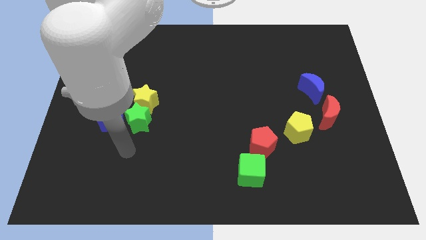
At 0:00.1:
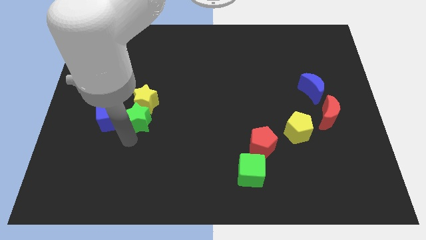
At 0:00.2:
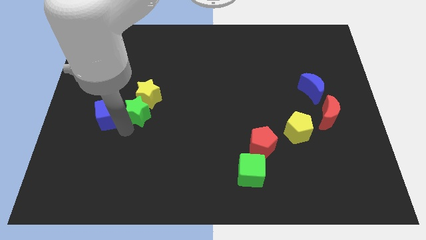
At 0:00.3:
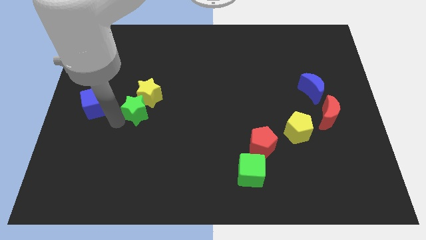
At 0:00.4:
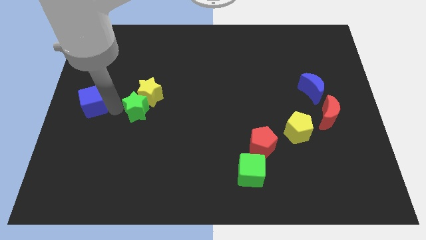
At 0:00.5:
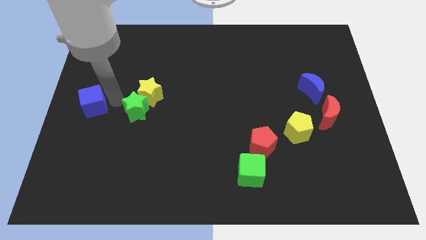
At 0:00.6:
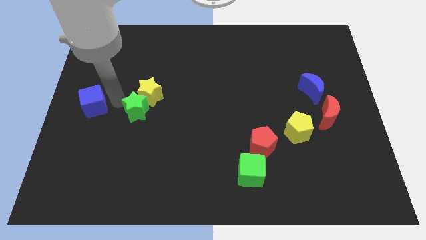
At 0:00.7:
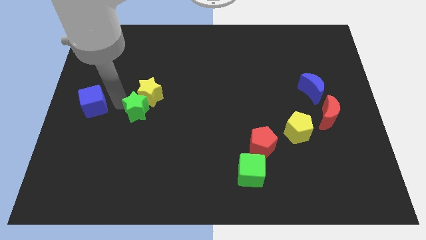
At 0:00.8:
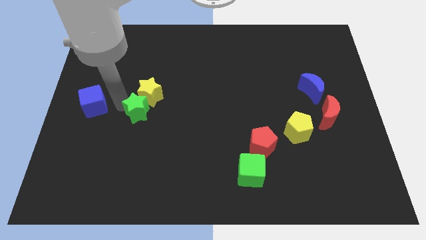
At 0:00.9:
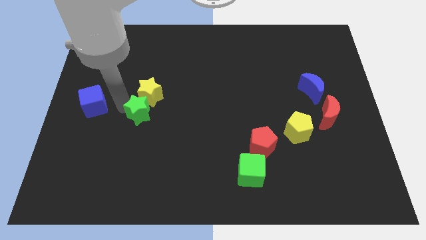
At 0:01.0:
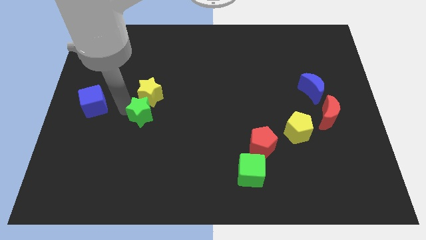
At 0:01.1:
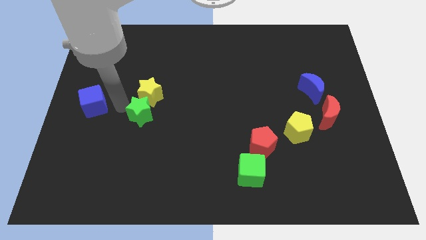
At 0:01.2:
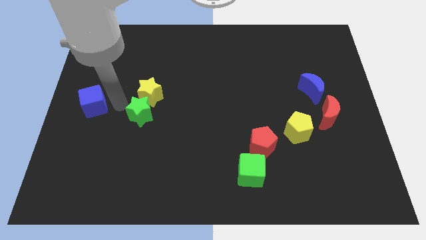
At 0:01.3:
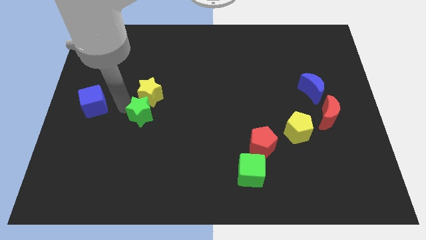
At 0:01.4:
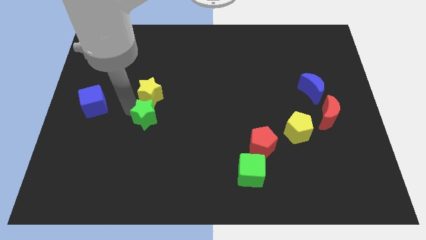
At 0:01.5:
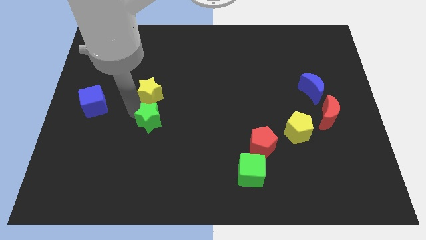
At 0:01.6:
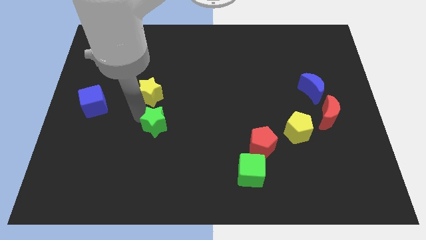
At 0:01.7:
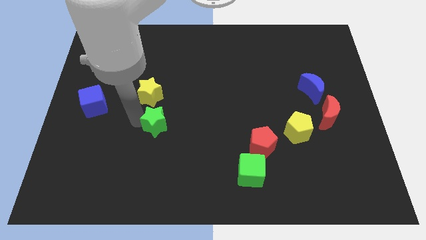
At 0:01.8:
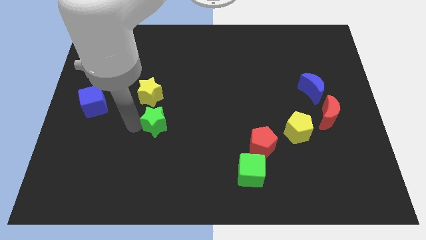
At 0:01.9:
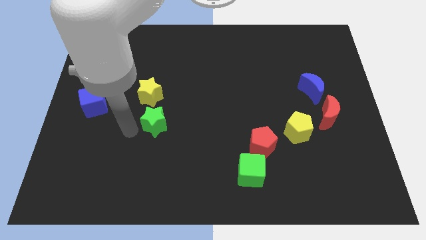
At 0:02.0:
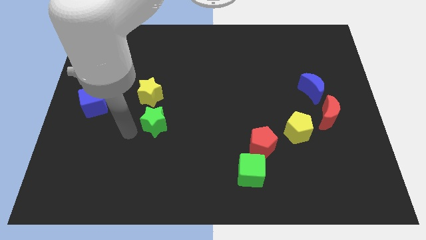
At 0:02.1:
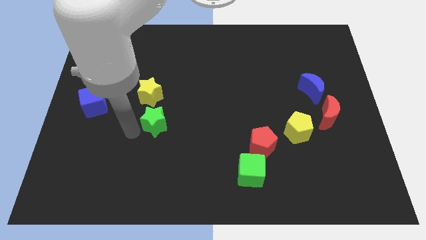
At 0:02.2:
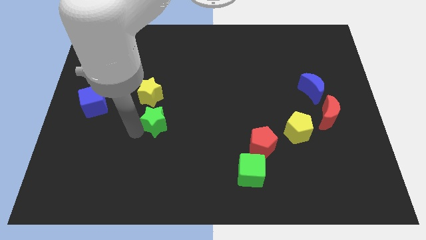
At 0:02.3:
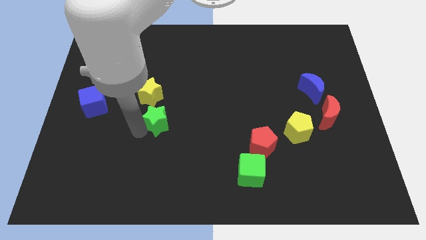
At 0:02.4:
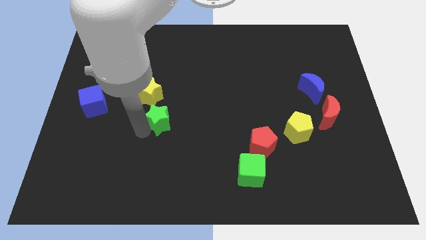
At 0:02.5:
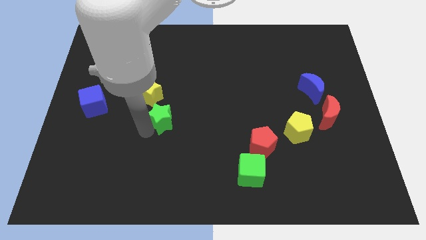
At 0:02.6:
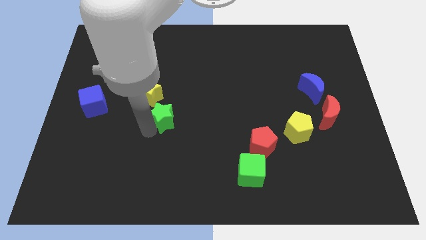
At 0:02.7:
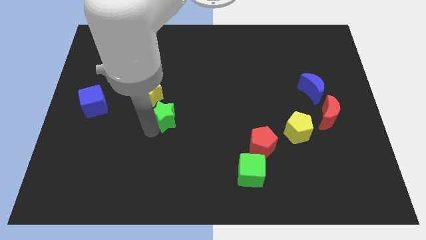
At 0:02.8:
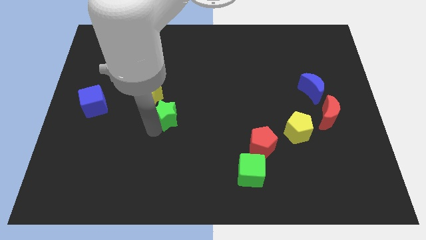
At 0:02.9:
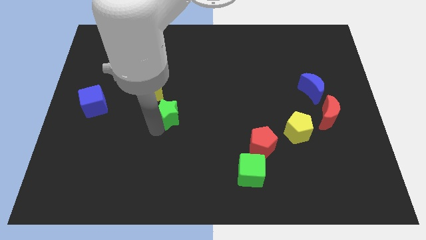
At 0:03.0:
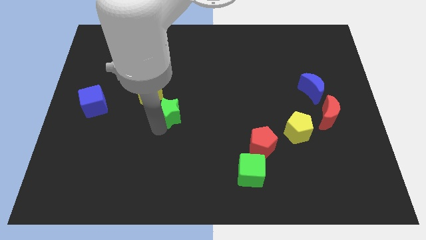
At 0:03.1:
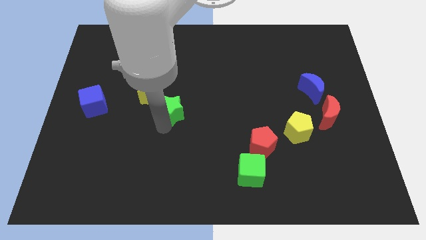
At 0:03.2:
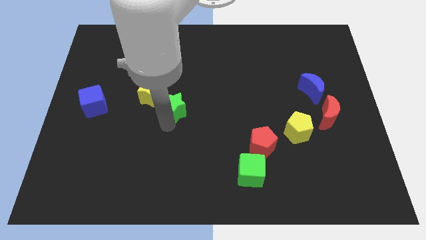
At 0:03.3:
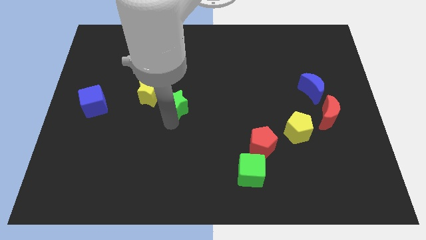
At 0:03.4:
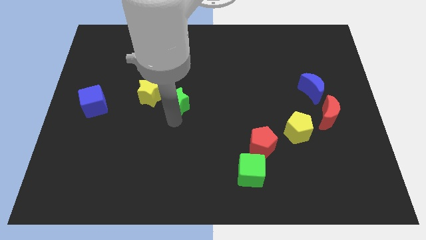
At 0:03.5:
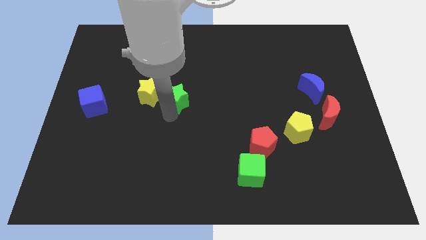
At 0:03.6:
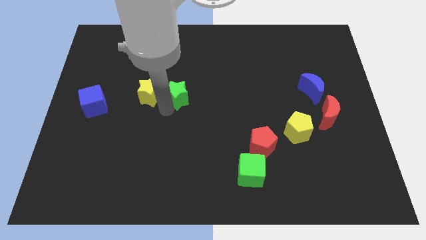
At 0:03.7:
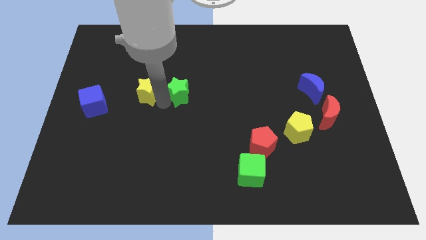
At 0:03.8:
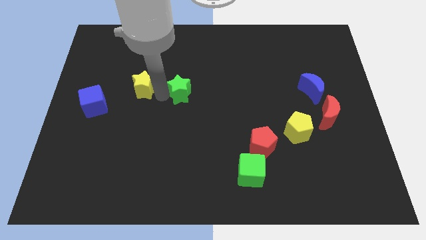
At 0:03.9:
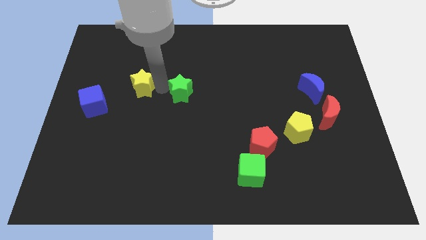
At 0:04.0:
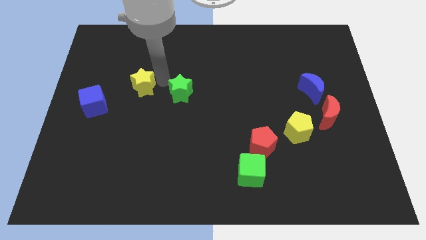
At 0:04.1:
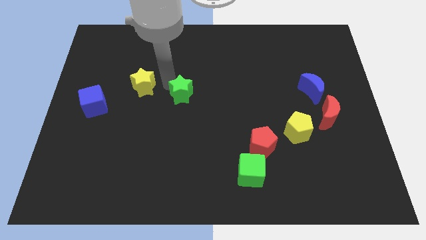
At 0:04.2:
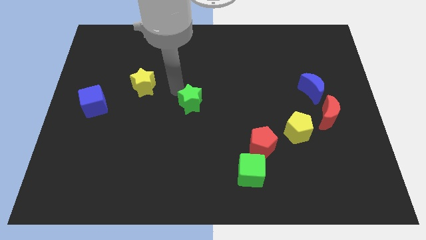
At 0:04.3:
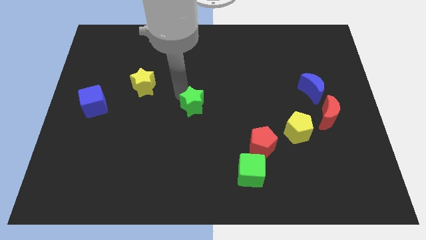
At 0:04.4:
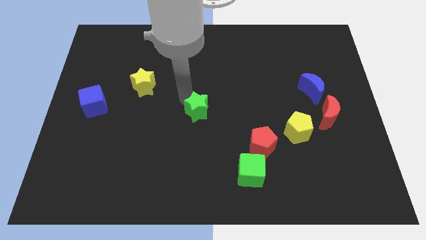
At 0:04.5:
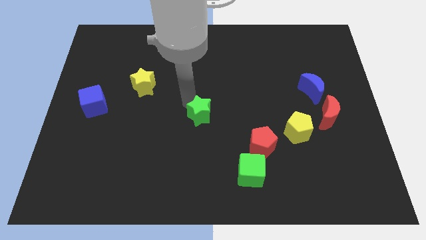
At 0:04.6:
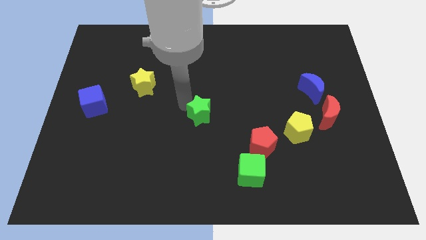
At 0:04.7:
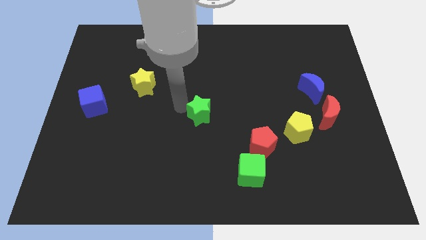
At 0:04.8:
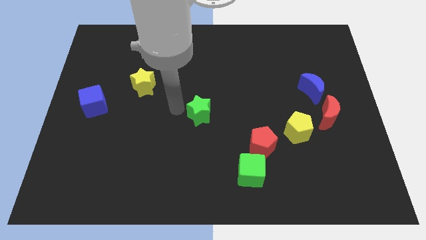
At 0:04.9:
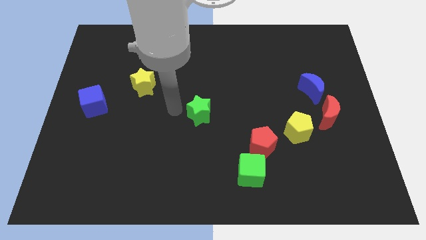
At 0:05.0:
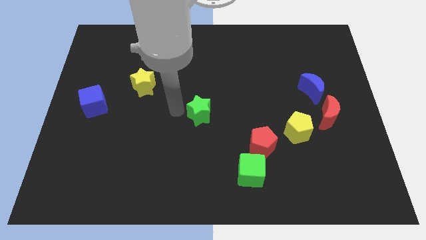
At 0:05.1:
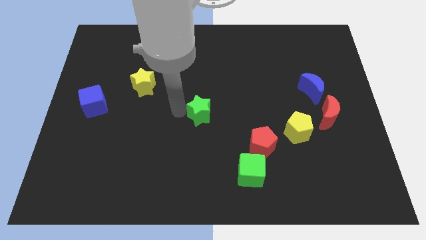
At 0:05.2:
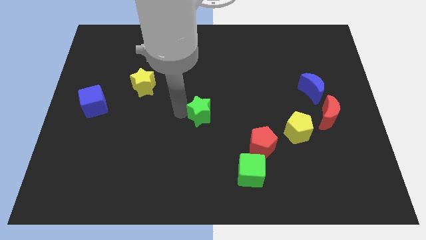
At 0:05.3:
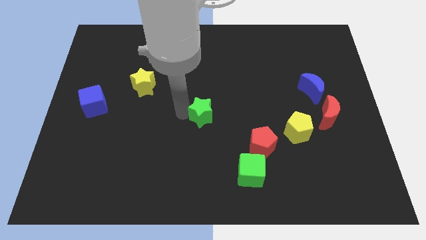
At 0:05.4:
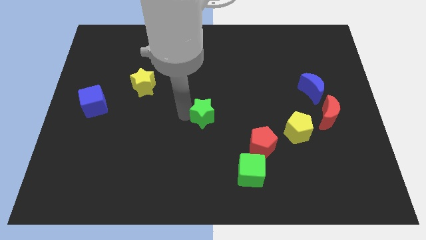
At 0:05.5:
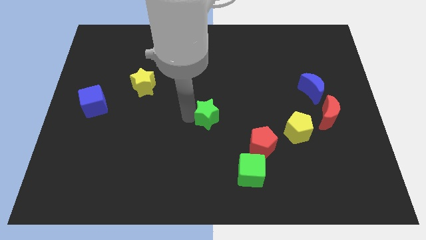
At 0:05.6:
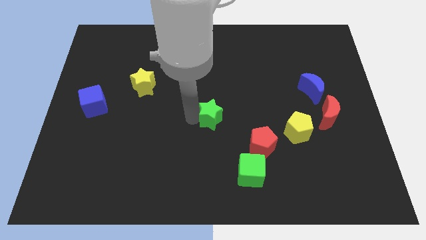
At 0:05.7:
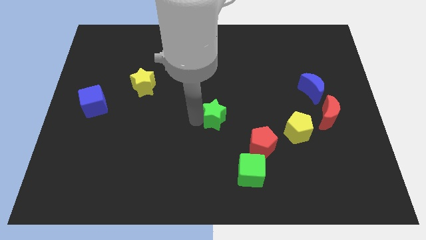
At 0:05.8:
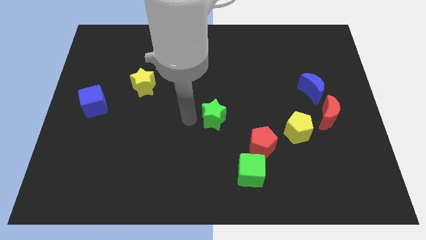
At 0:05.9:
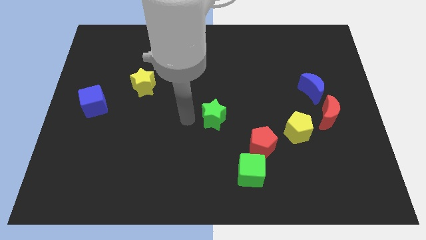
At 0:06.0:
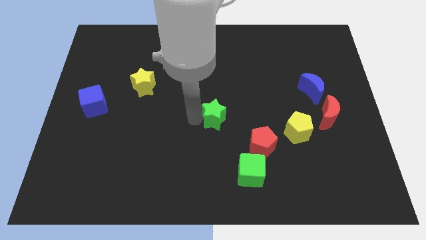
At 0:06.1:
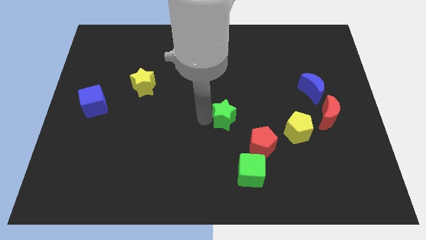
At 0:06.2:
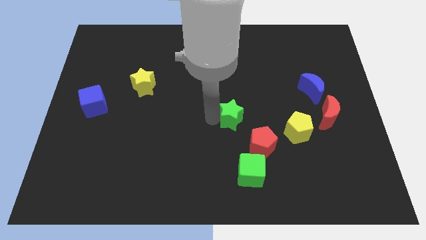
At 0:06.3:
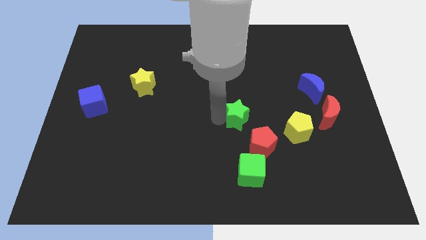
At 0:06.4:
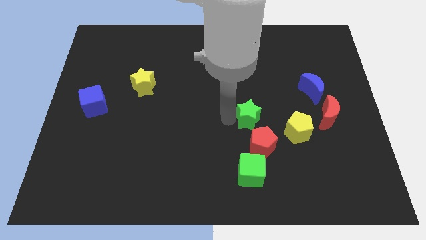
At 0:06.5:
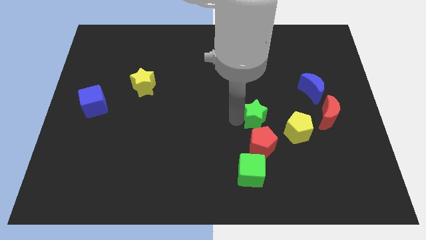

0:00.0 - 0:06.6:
slide the green star diagonally up and to the left of the yellow pentagon

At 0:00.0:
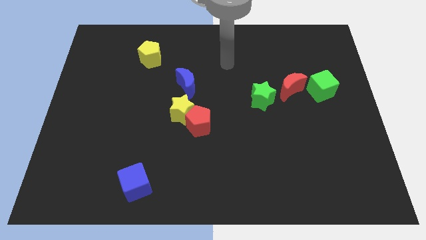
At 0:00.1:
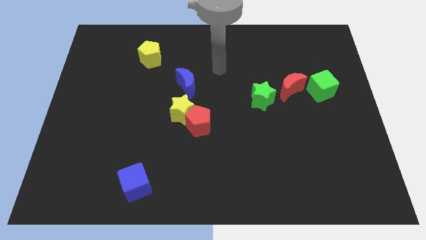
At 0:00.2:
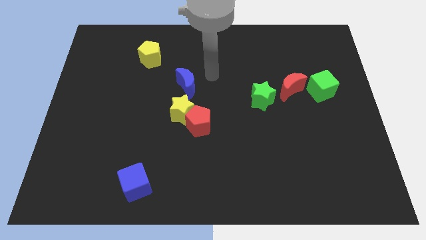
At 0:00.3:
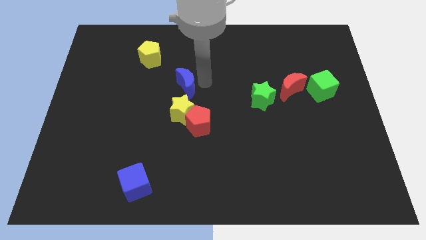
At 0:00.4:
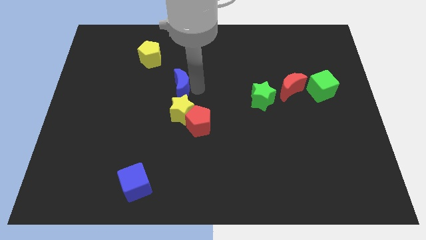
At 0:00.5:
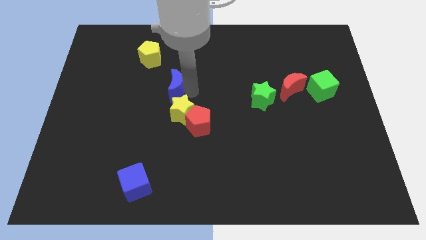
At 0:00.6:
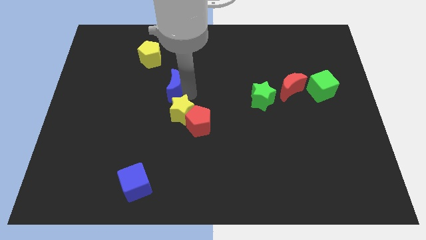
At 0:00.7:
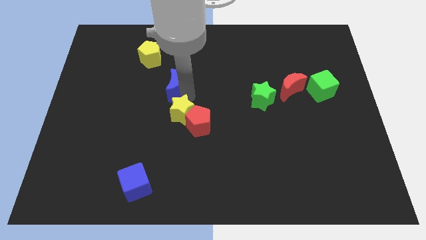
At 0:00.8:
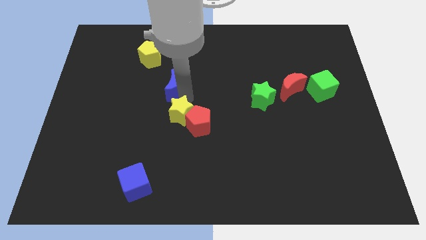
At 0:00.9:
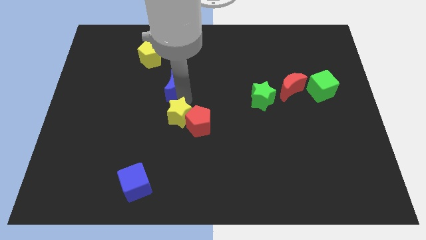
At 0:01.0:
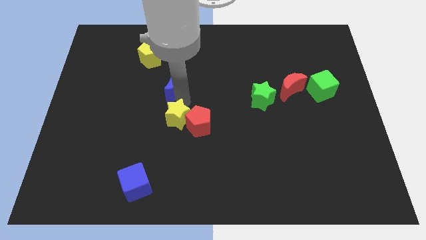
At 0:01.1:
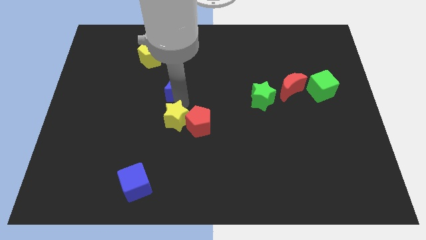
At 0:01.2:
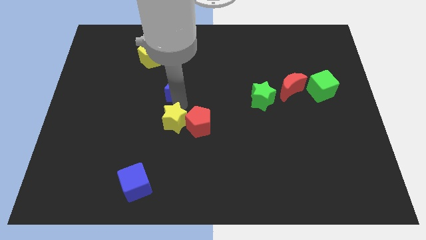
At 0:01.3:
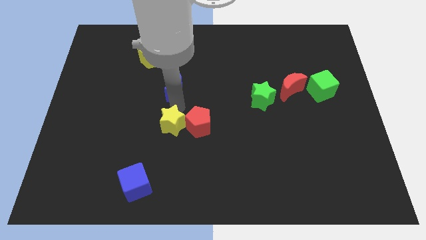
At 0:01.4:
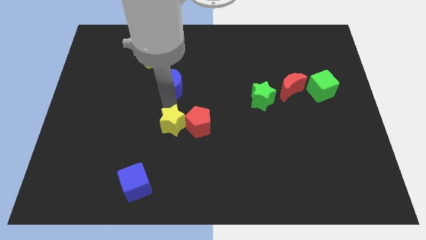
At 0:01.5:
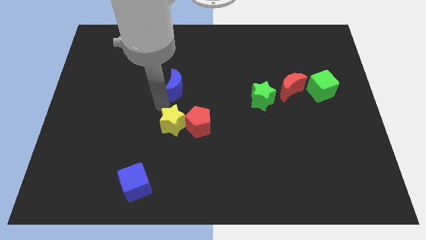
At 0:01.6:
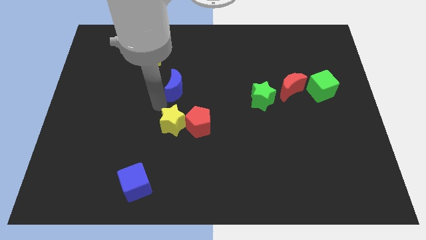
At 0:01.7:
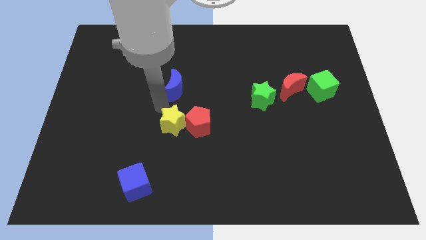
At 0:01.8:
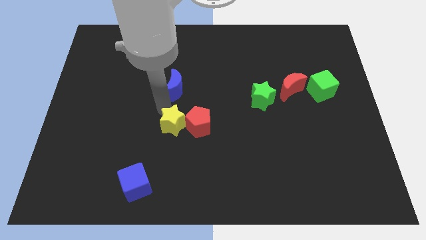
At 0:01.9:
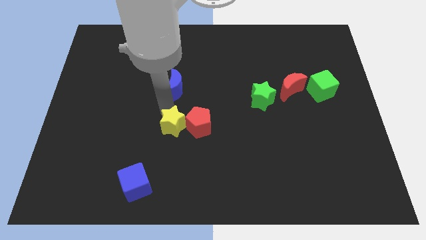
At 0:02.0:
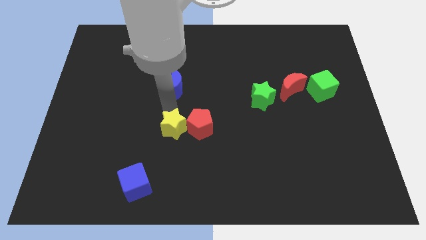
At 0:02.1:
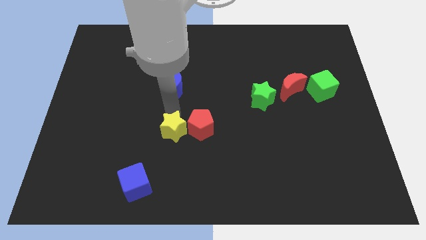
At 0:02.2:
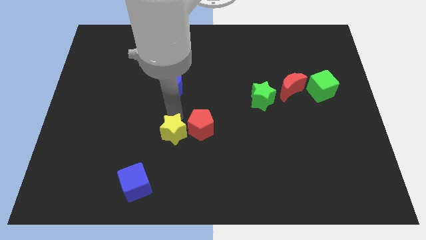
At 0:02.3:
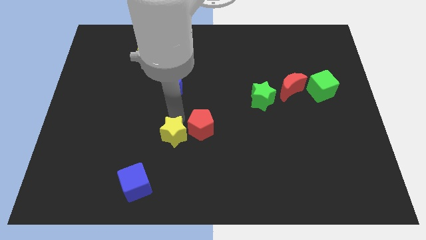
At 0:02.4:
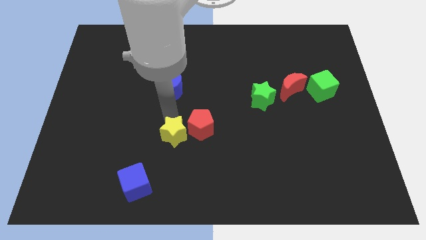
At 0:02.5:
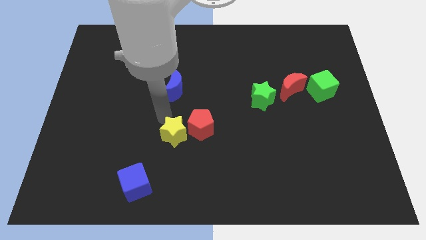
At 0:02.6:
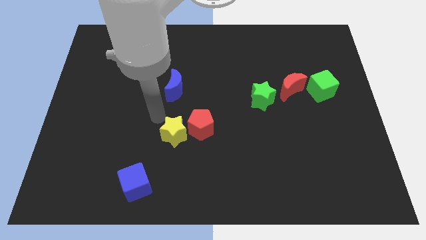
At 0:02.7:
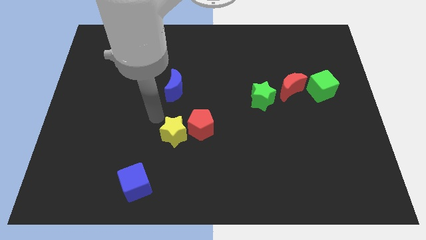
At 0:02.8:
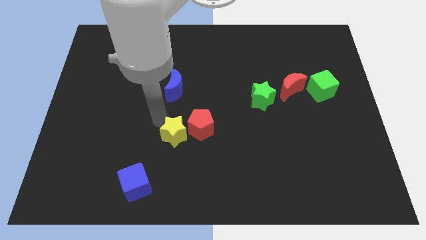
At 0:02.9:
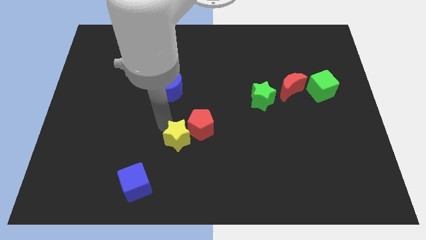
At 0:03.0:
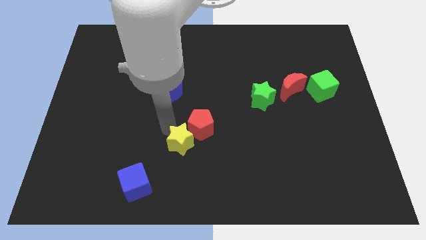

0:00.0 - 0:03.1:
move the yellow star to the bottom side of the red pentagon
